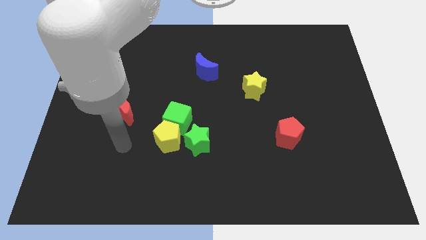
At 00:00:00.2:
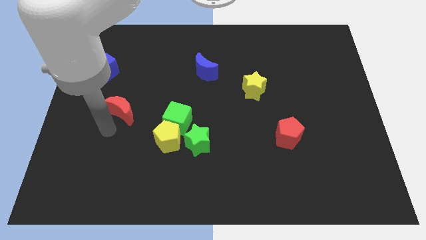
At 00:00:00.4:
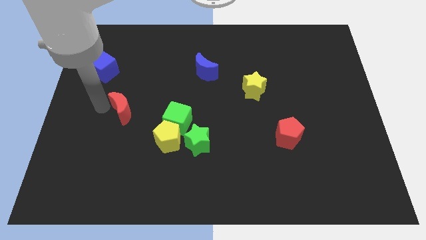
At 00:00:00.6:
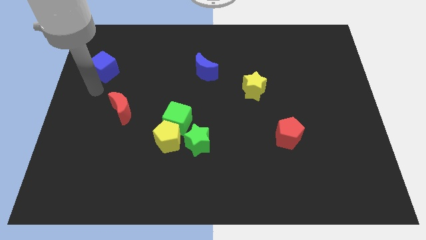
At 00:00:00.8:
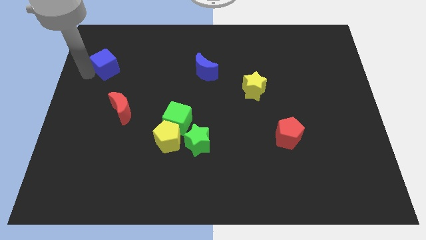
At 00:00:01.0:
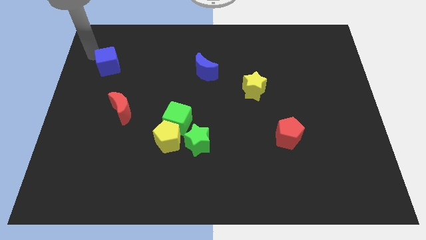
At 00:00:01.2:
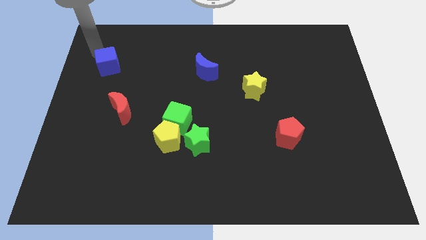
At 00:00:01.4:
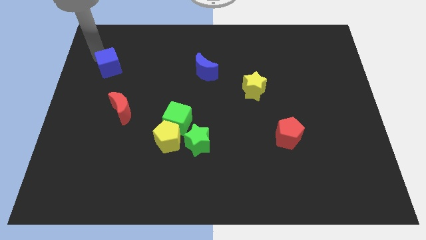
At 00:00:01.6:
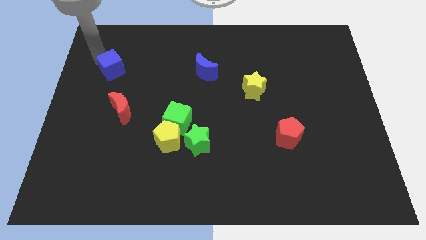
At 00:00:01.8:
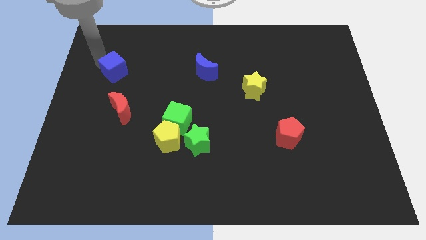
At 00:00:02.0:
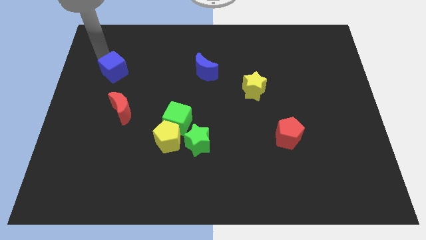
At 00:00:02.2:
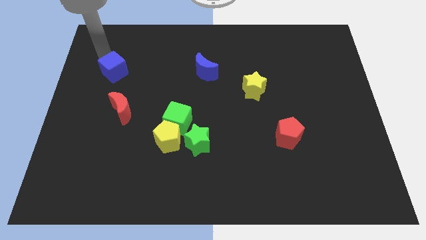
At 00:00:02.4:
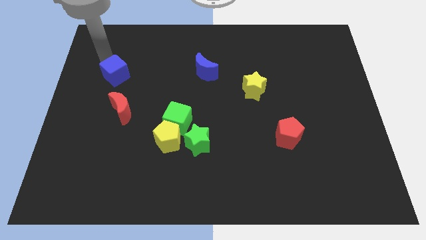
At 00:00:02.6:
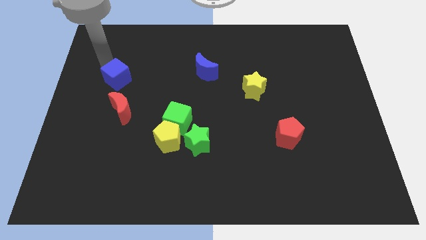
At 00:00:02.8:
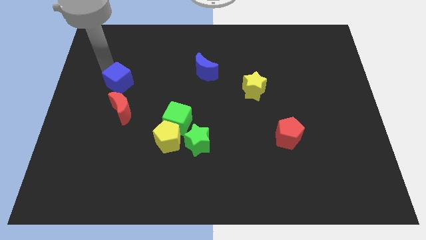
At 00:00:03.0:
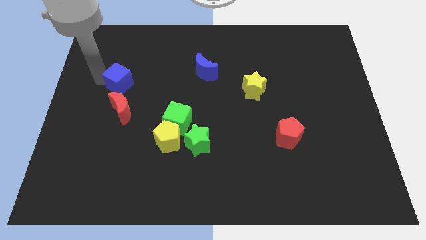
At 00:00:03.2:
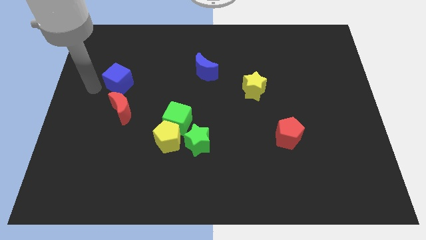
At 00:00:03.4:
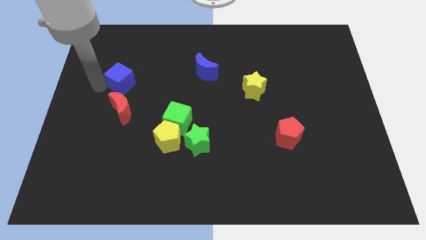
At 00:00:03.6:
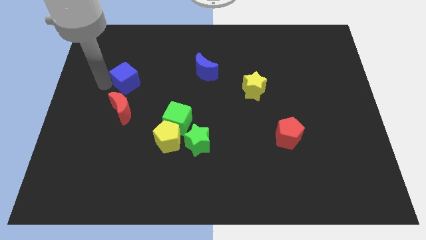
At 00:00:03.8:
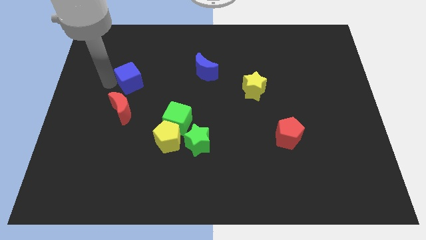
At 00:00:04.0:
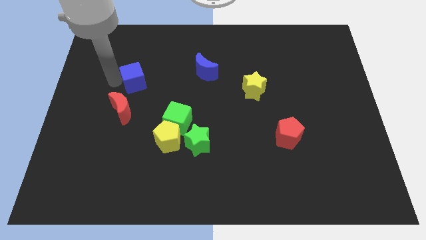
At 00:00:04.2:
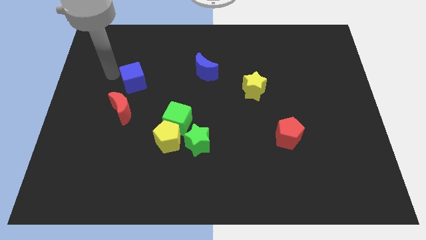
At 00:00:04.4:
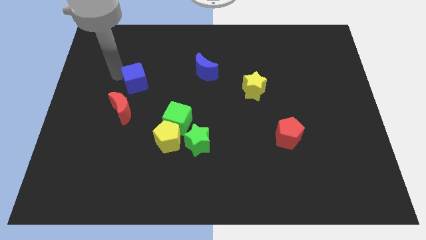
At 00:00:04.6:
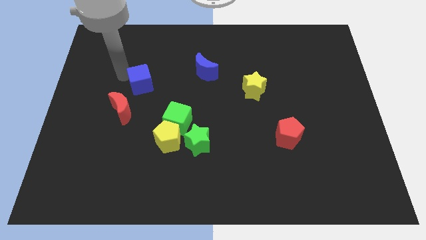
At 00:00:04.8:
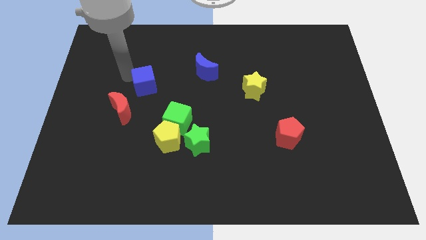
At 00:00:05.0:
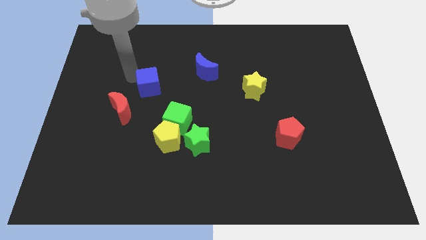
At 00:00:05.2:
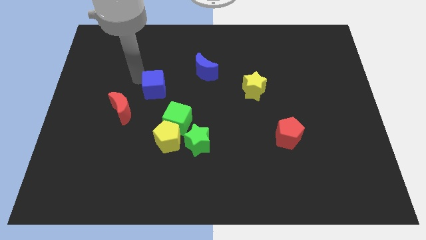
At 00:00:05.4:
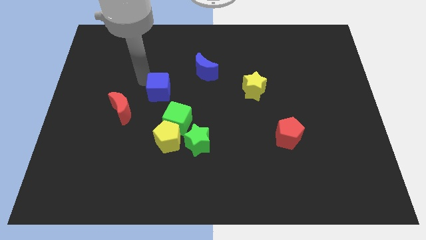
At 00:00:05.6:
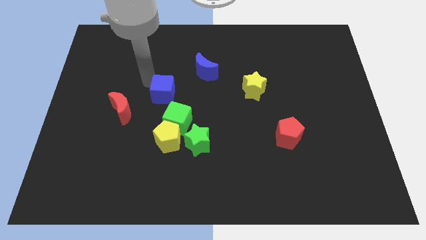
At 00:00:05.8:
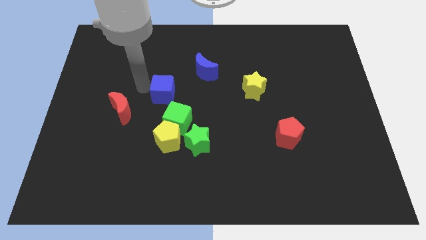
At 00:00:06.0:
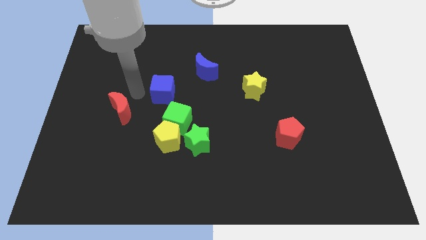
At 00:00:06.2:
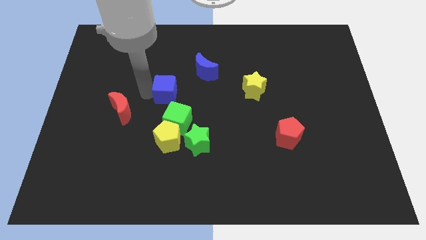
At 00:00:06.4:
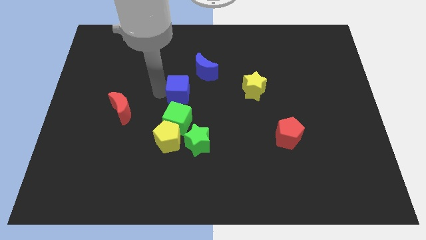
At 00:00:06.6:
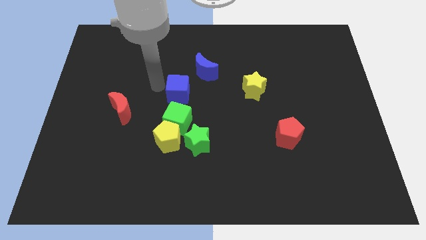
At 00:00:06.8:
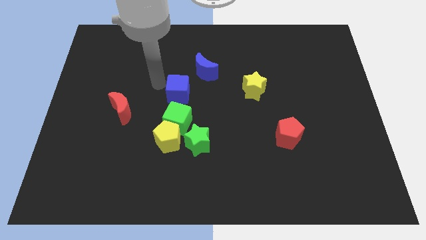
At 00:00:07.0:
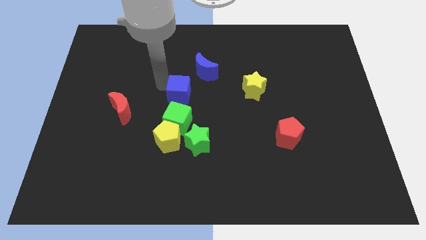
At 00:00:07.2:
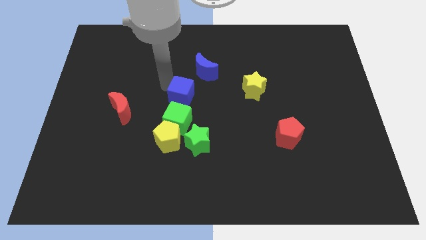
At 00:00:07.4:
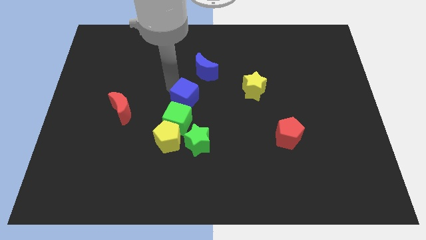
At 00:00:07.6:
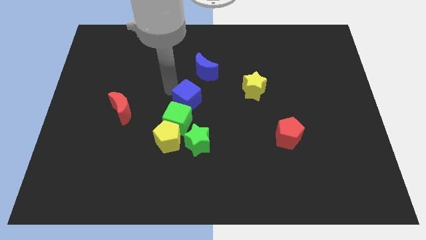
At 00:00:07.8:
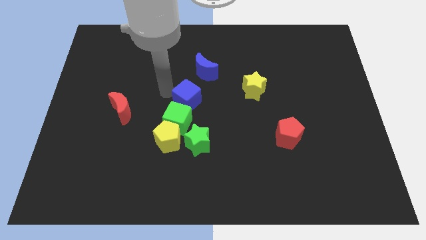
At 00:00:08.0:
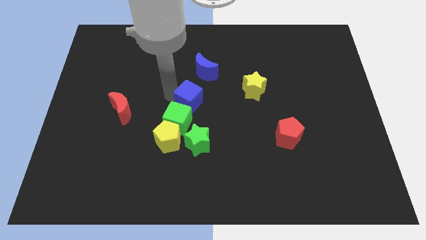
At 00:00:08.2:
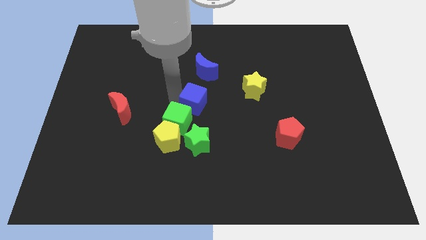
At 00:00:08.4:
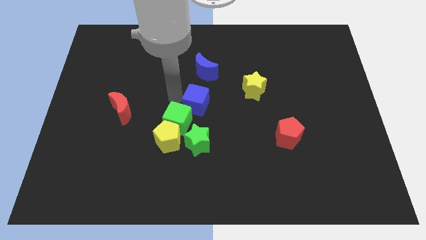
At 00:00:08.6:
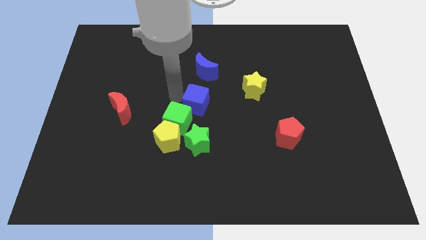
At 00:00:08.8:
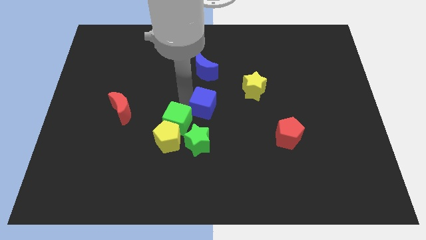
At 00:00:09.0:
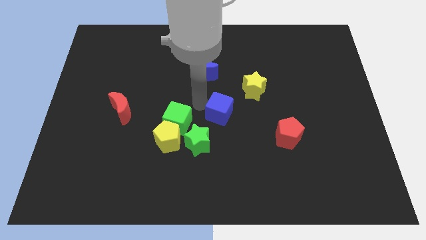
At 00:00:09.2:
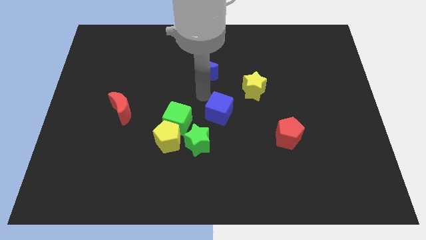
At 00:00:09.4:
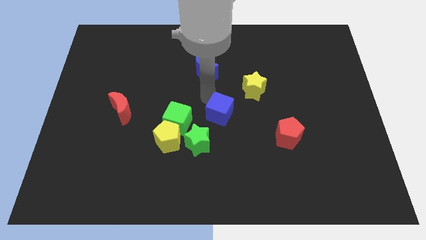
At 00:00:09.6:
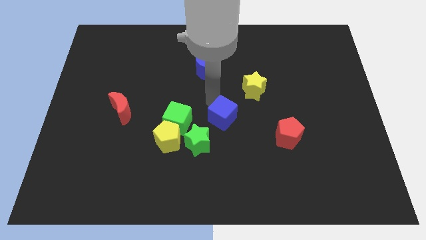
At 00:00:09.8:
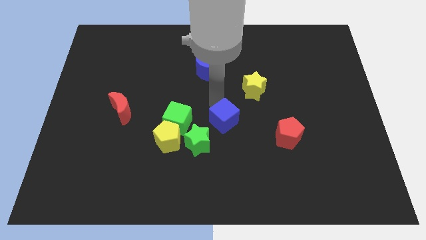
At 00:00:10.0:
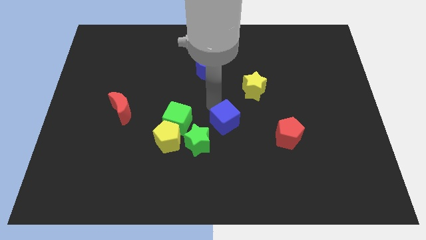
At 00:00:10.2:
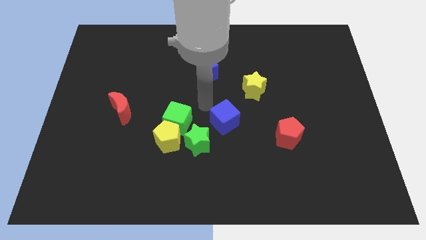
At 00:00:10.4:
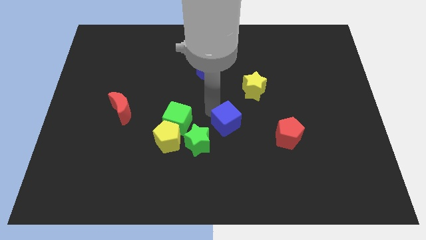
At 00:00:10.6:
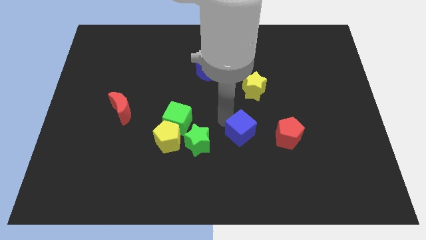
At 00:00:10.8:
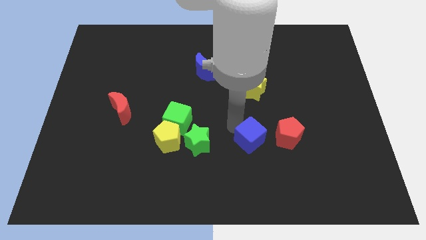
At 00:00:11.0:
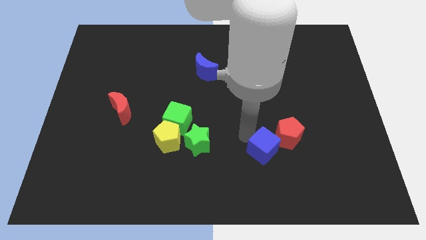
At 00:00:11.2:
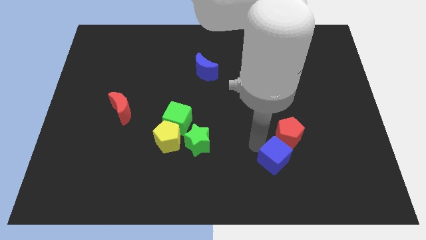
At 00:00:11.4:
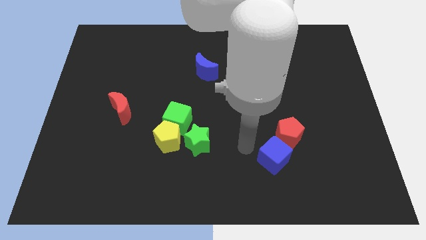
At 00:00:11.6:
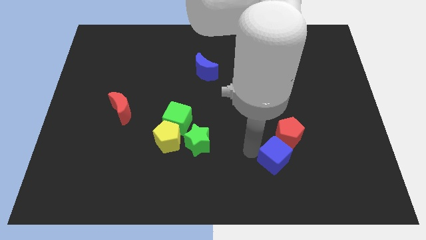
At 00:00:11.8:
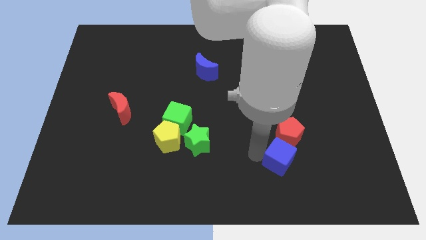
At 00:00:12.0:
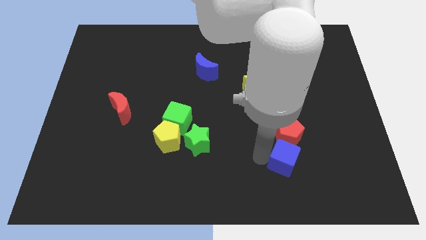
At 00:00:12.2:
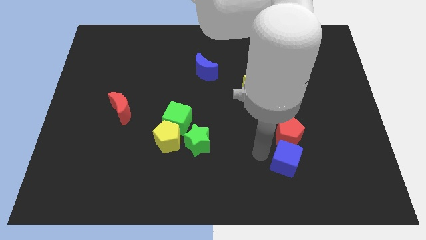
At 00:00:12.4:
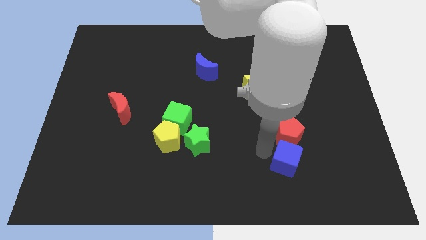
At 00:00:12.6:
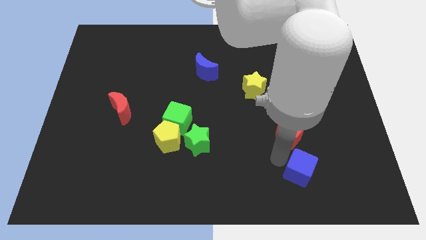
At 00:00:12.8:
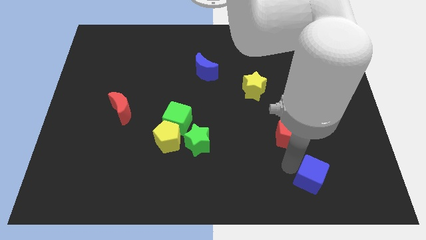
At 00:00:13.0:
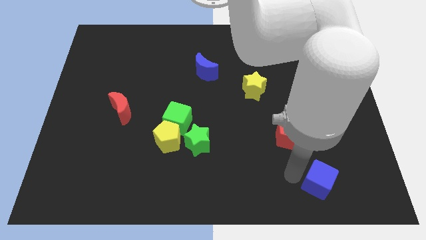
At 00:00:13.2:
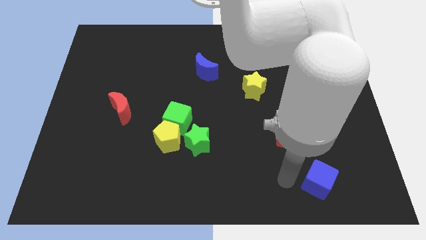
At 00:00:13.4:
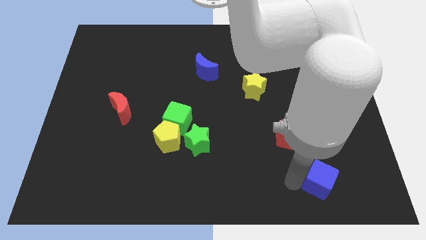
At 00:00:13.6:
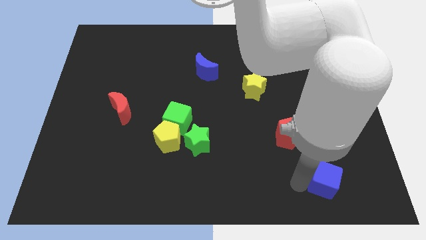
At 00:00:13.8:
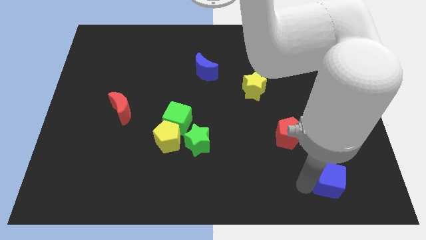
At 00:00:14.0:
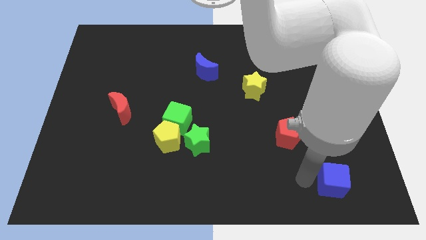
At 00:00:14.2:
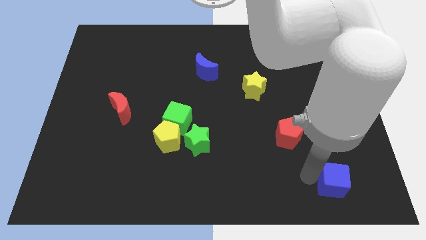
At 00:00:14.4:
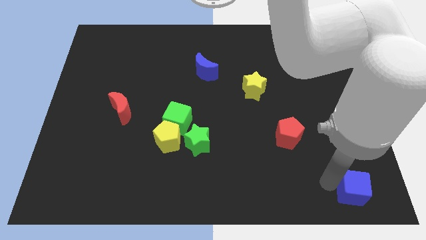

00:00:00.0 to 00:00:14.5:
push the blue cube to the bottom right corner
